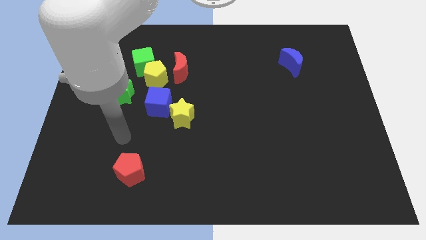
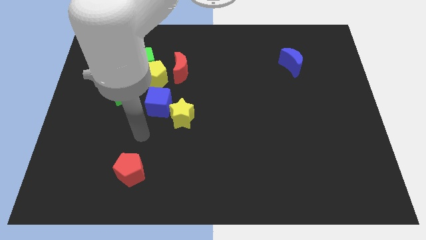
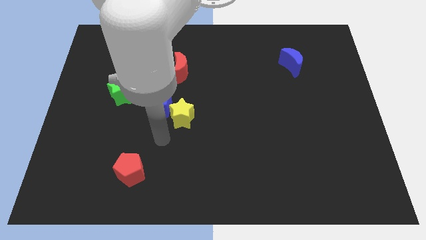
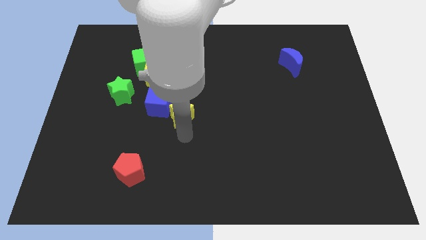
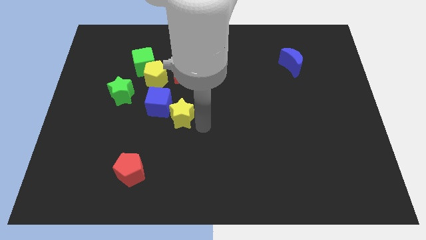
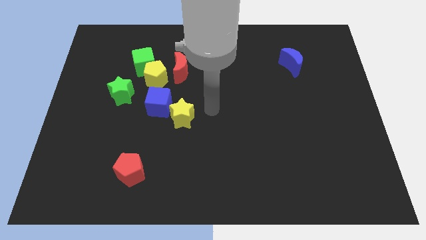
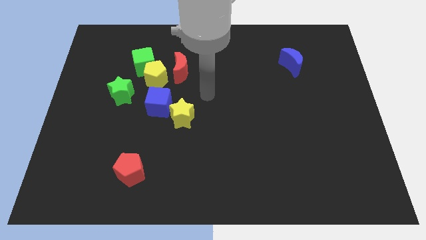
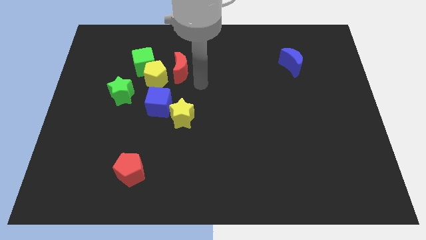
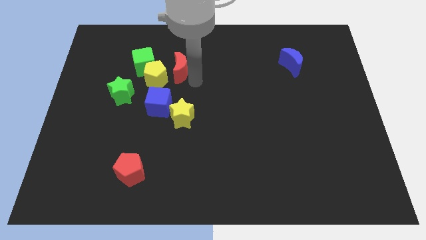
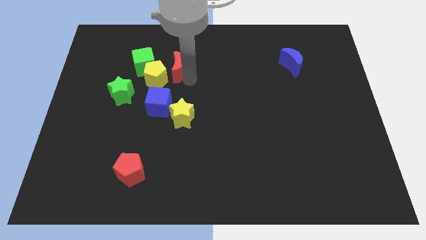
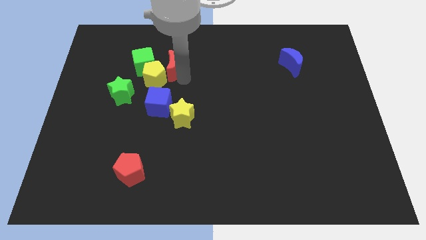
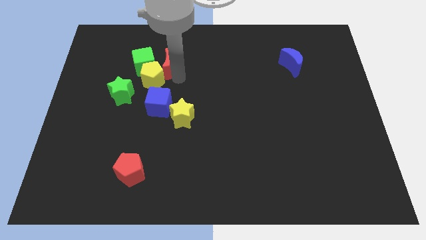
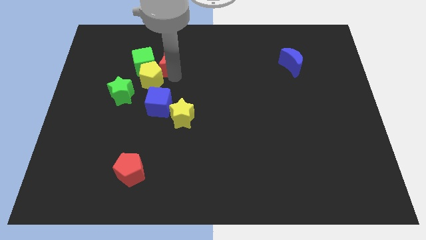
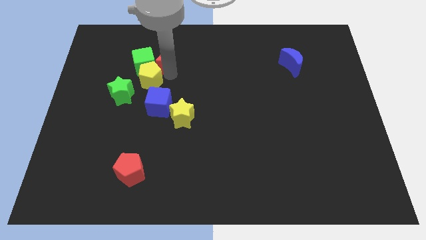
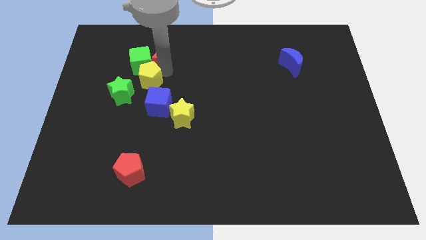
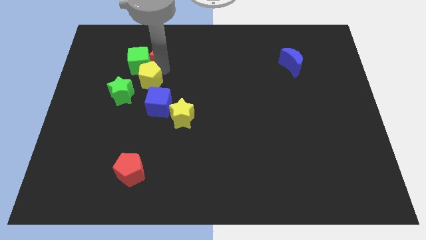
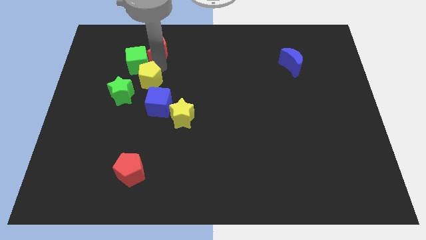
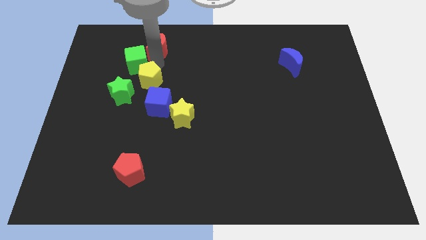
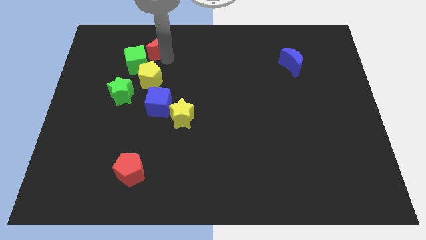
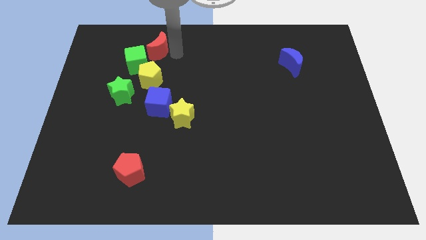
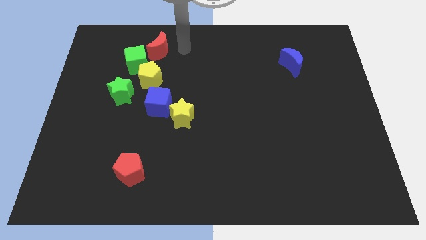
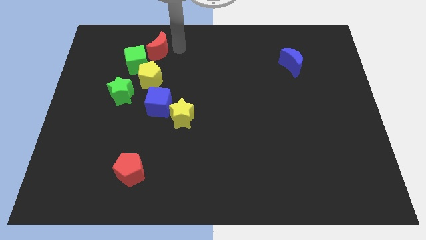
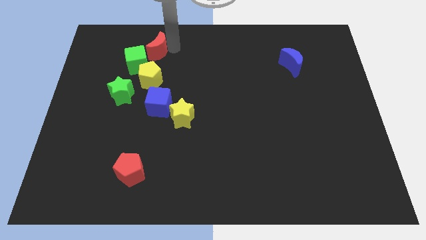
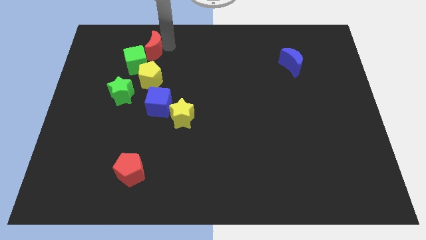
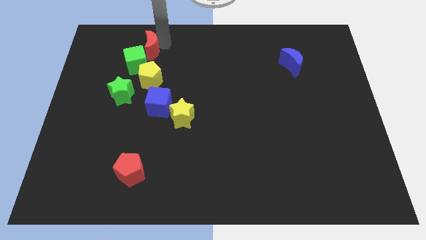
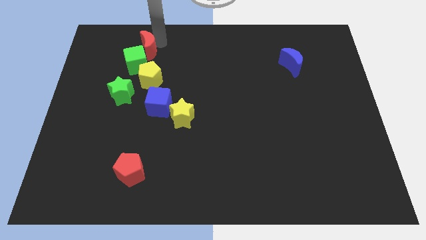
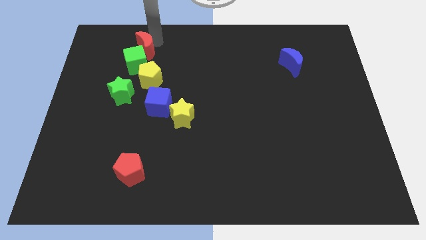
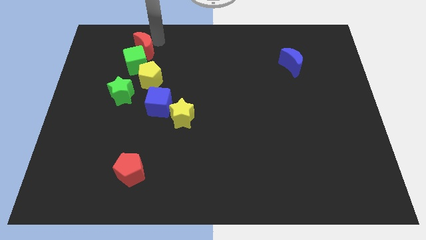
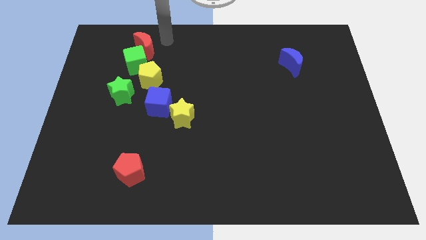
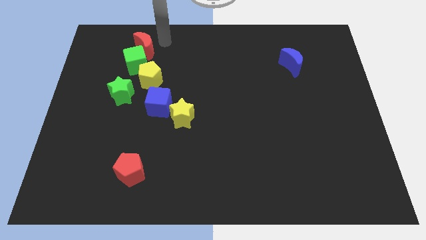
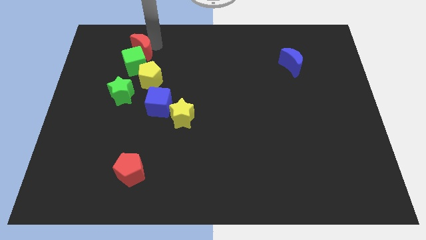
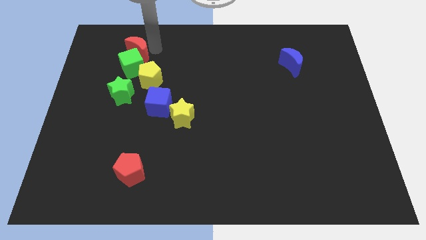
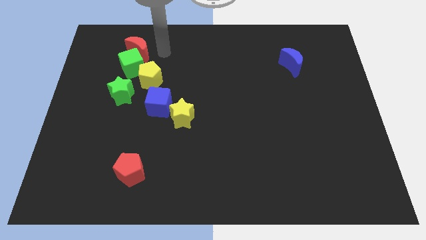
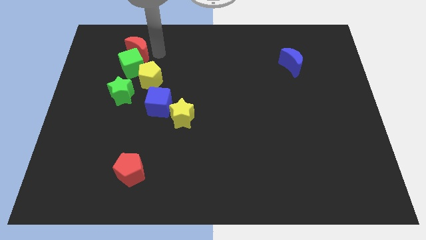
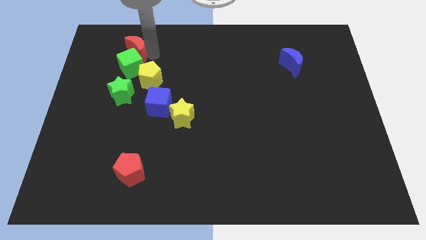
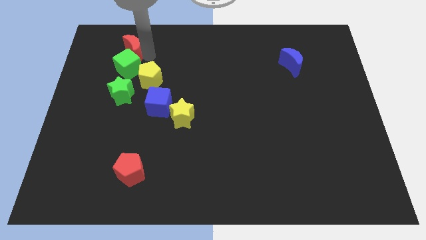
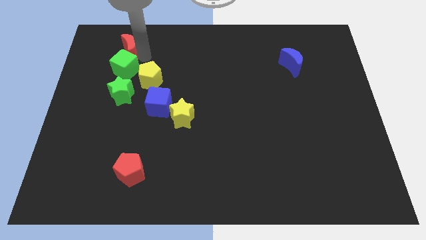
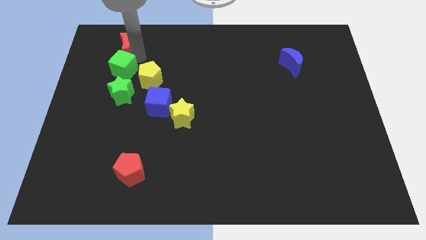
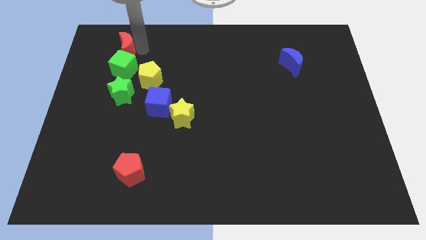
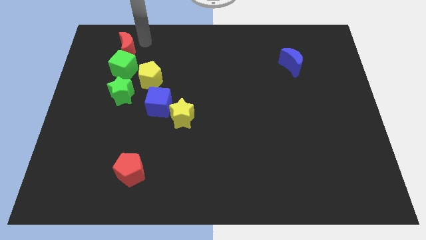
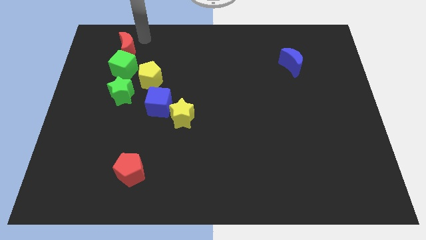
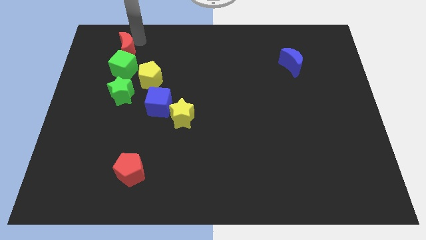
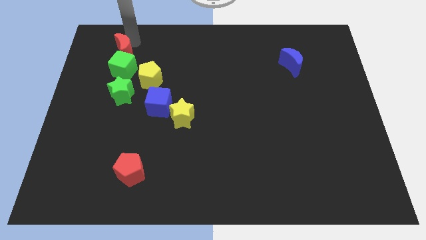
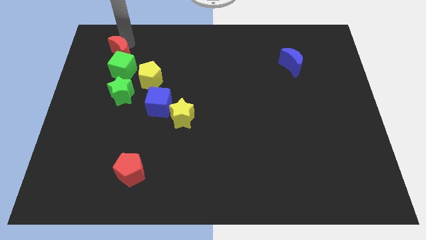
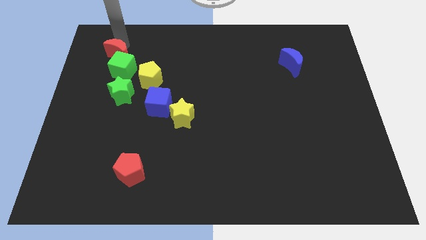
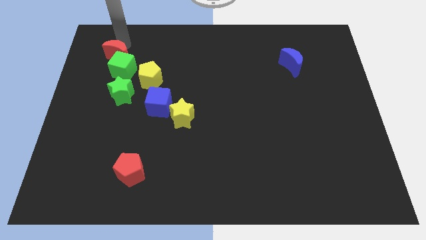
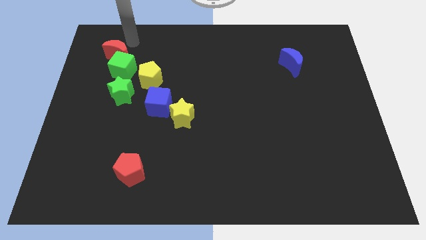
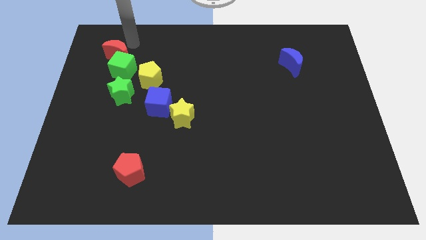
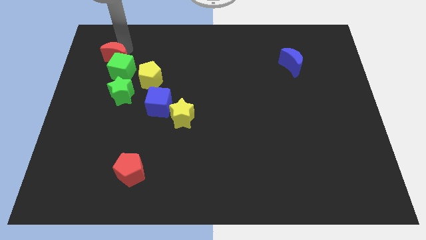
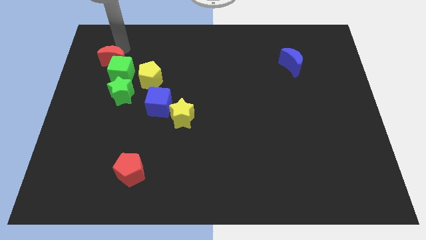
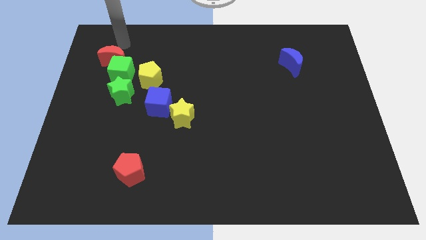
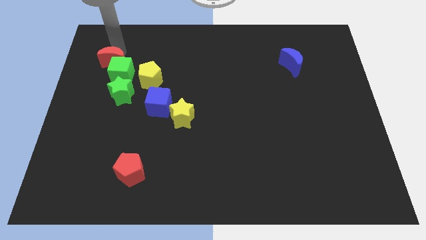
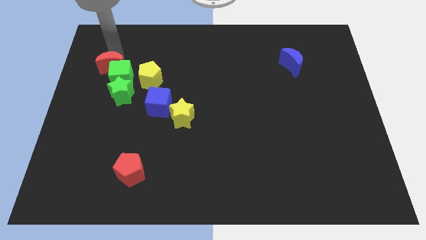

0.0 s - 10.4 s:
push the red moon diagonally up and to the left of the green star

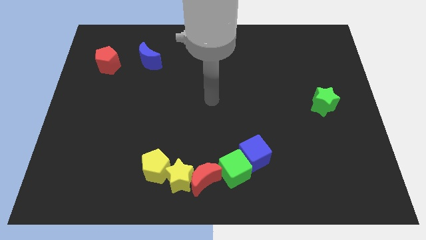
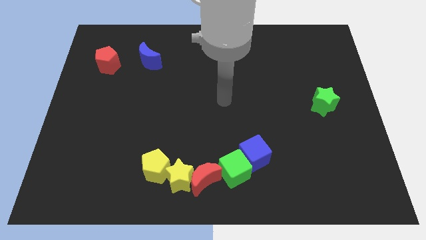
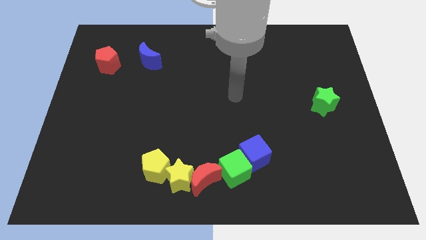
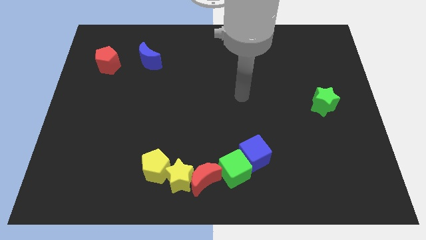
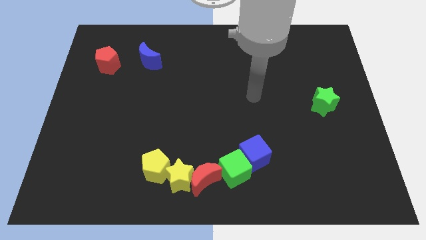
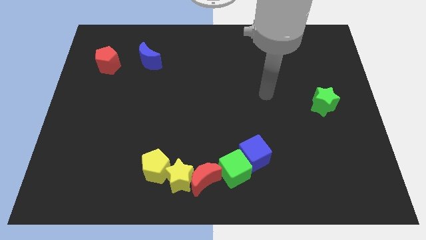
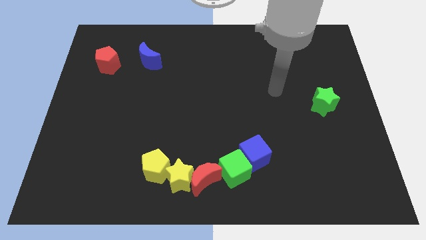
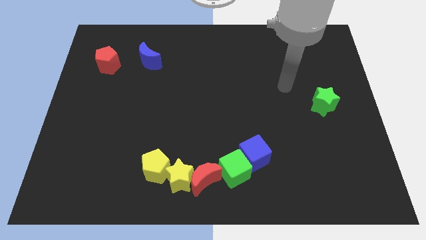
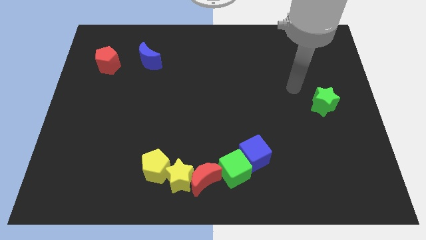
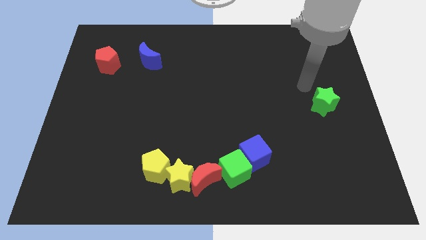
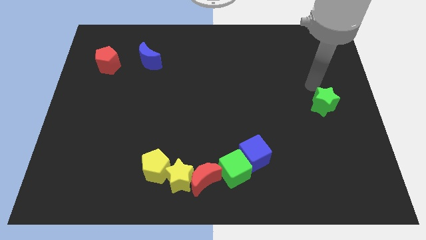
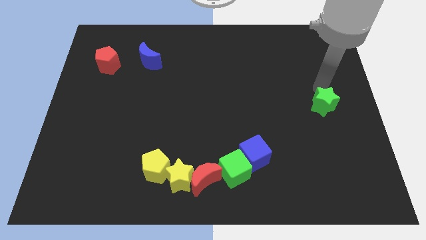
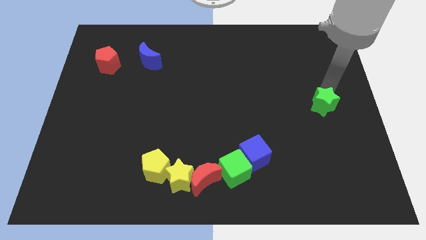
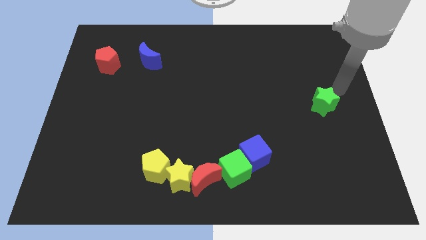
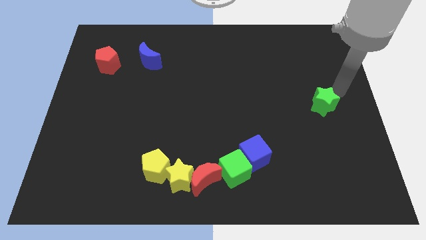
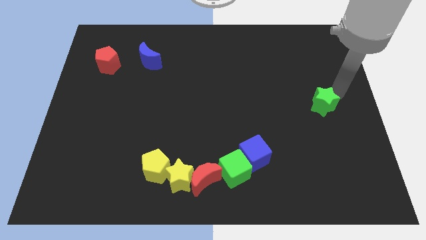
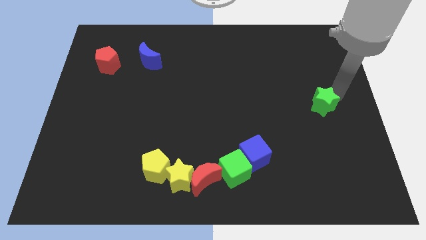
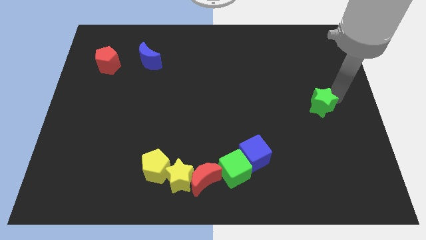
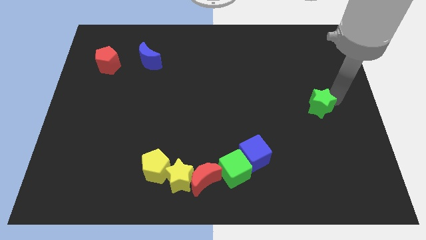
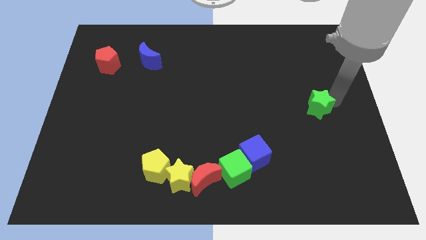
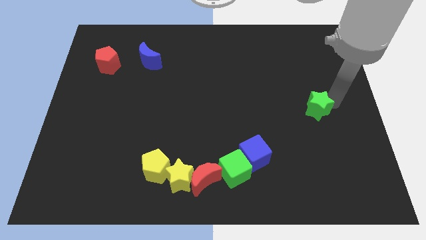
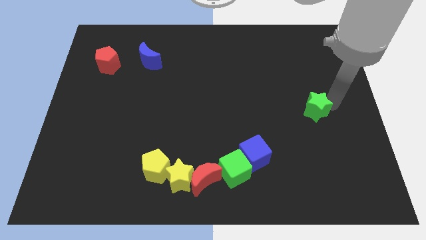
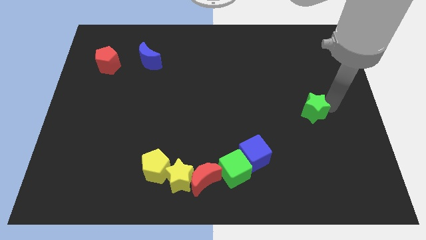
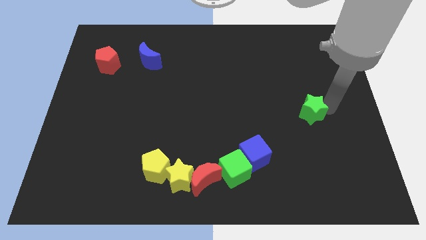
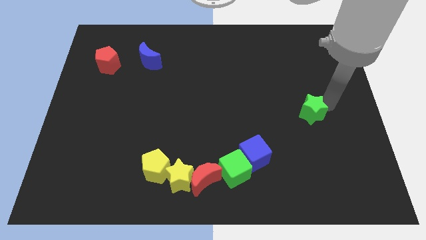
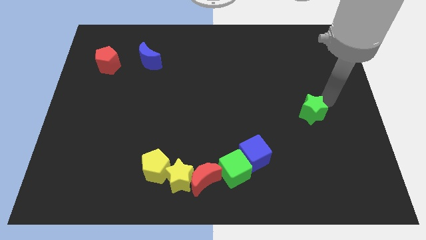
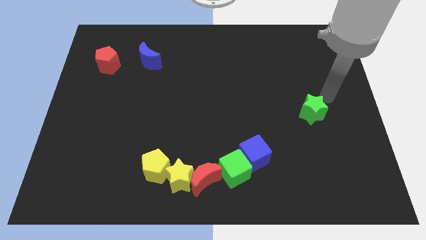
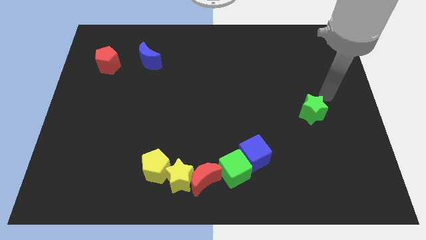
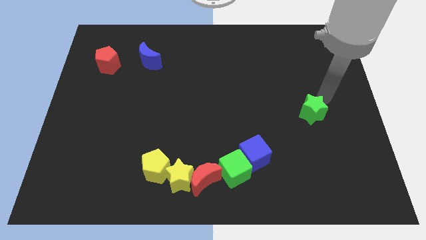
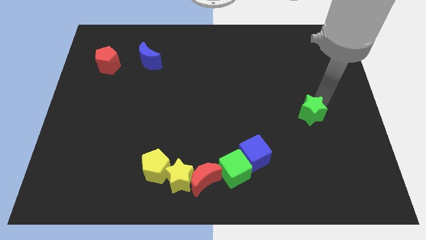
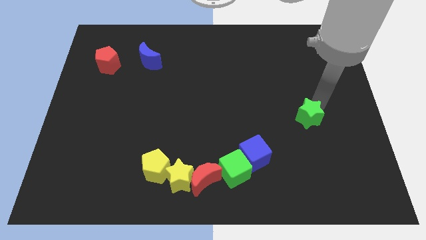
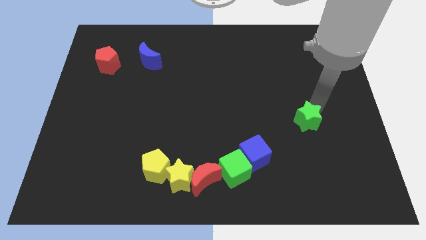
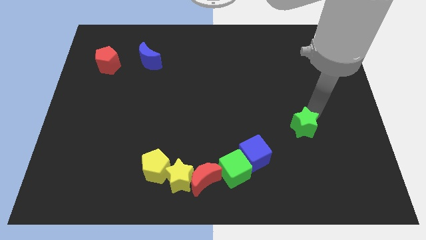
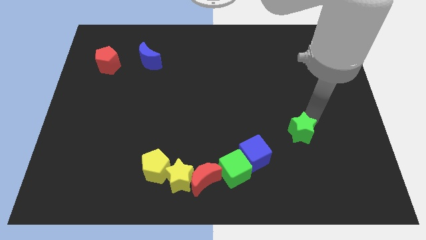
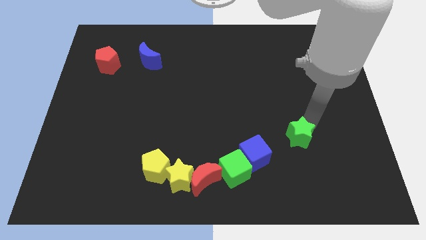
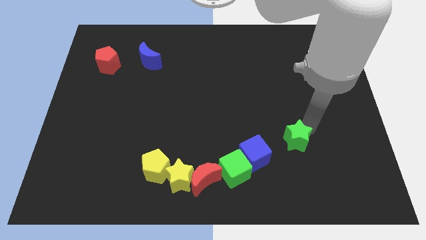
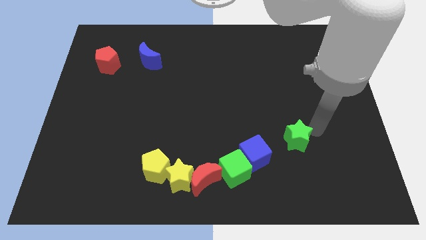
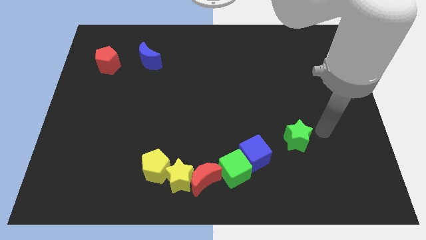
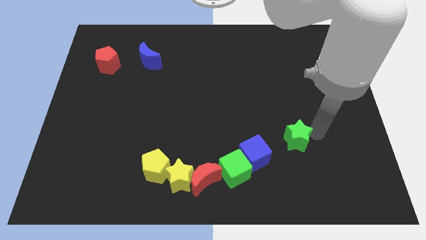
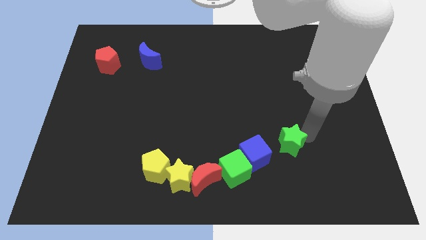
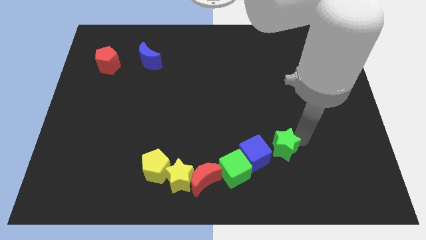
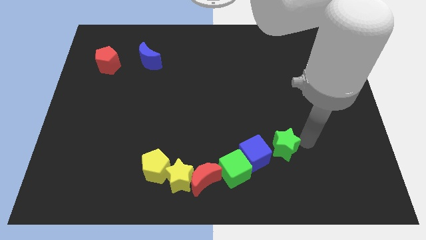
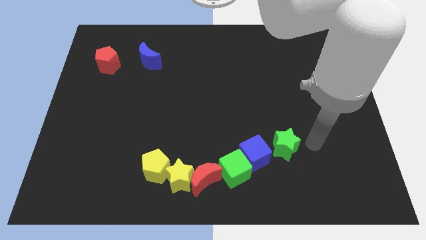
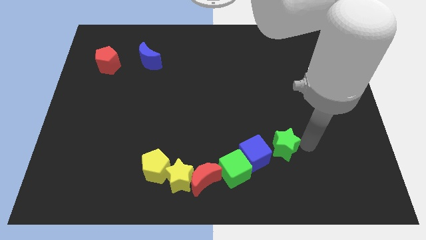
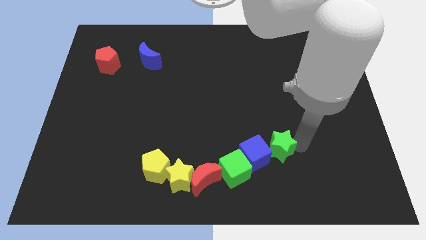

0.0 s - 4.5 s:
put the green star to the top right side of the green cube
